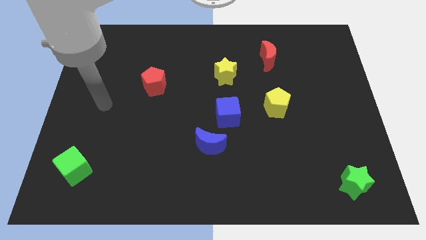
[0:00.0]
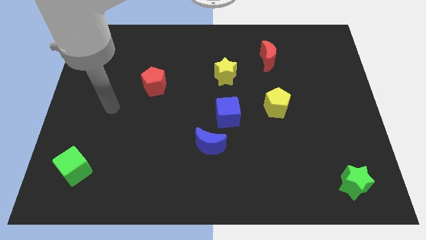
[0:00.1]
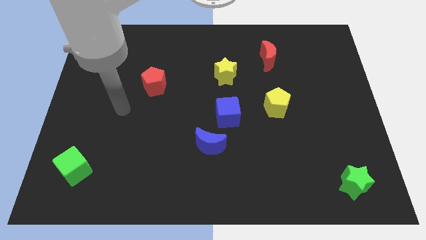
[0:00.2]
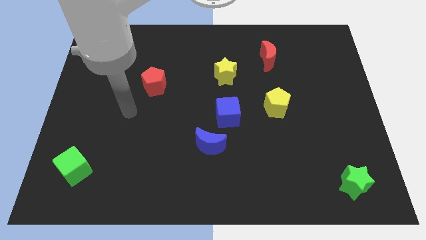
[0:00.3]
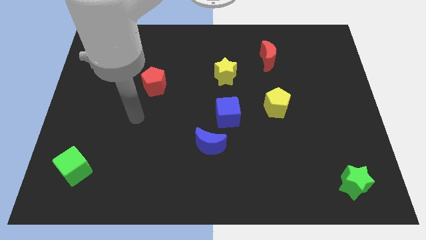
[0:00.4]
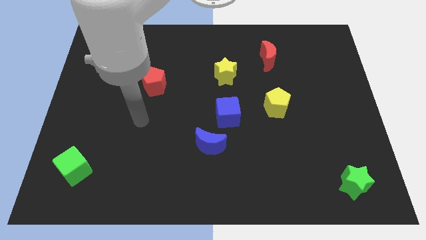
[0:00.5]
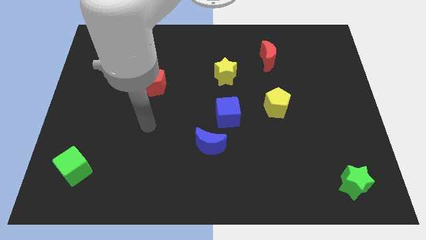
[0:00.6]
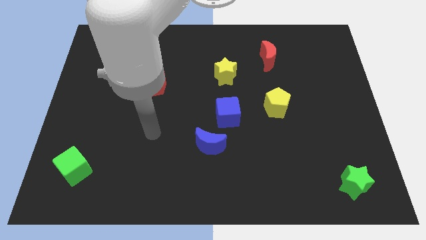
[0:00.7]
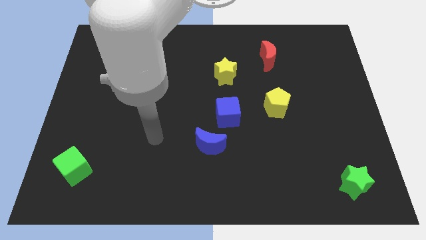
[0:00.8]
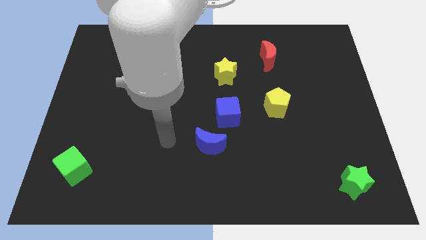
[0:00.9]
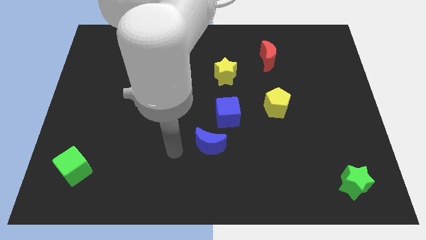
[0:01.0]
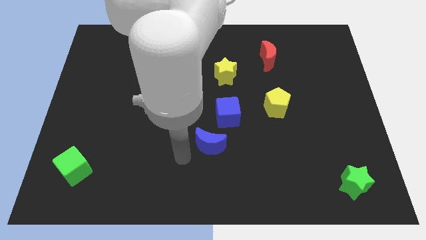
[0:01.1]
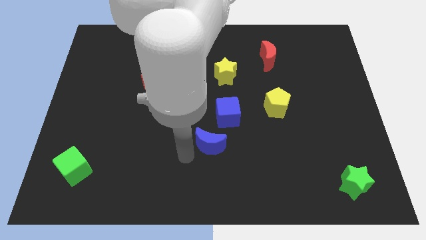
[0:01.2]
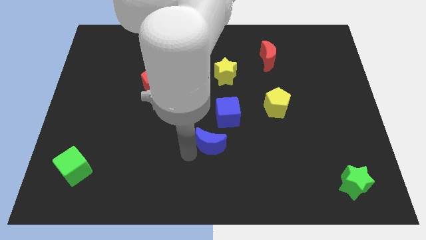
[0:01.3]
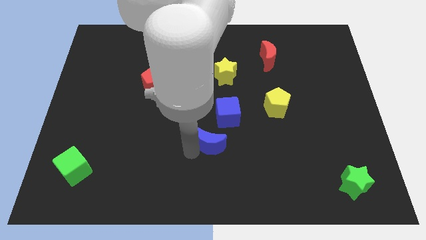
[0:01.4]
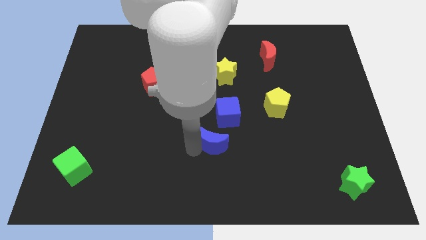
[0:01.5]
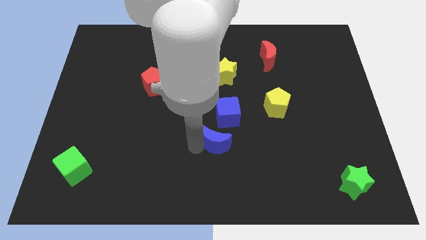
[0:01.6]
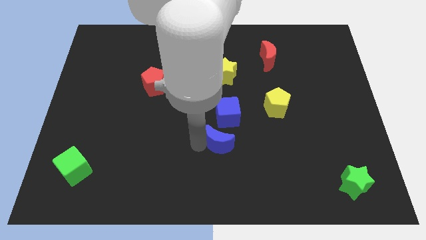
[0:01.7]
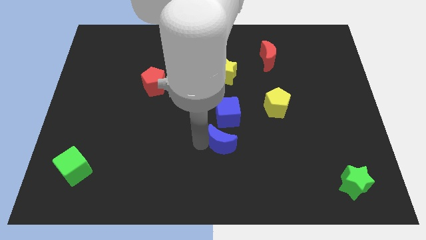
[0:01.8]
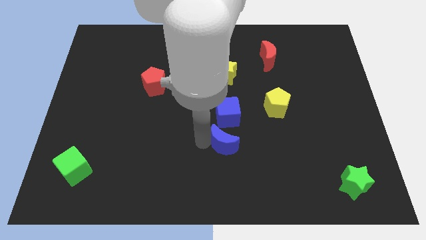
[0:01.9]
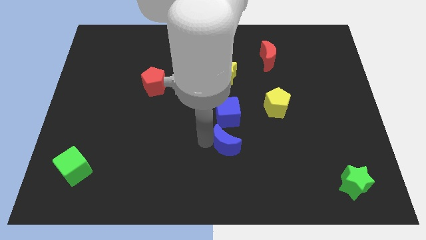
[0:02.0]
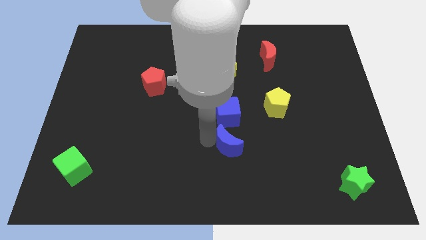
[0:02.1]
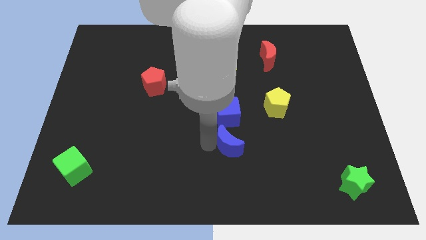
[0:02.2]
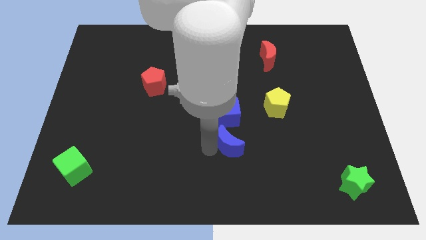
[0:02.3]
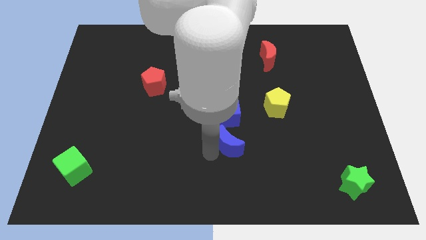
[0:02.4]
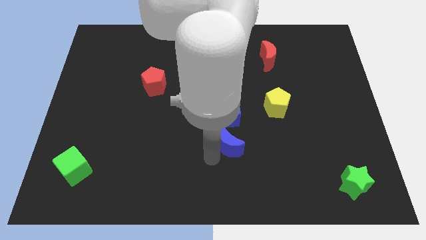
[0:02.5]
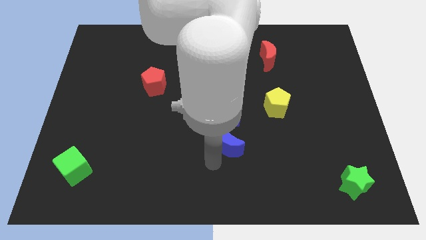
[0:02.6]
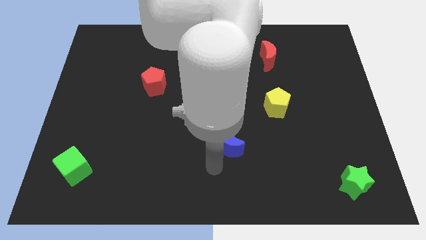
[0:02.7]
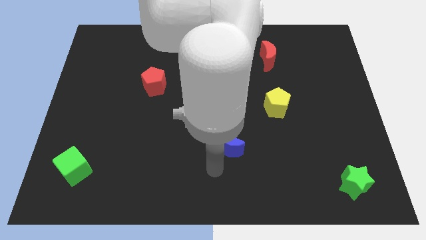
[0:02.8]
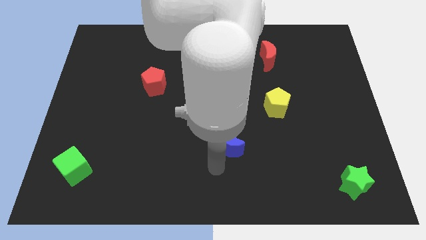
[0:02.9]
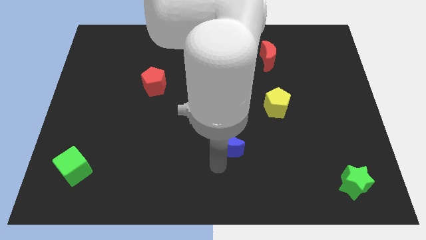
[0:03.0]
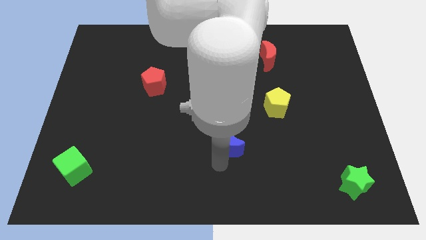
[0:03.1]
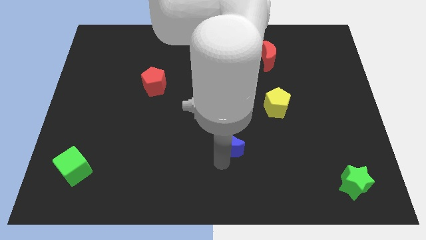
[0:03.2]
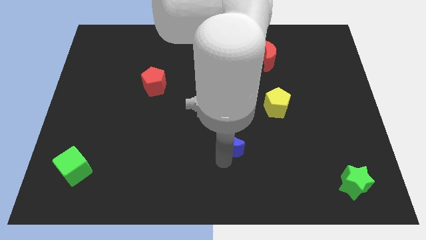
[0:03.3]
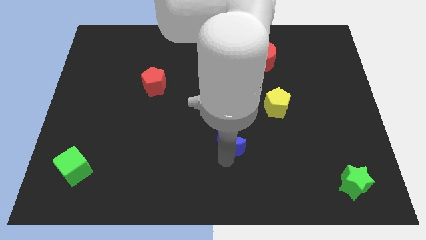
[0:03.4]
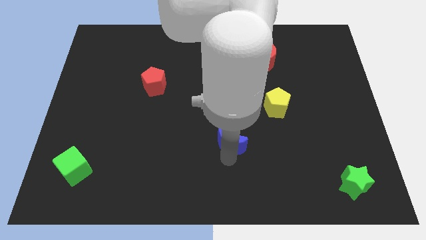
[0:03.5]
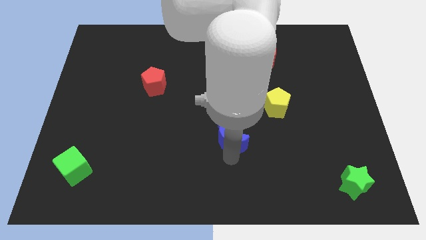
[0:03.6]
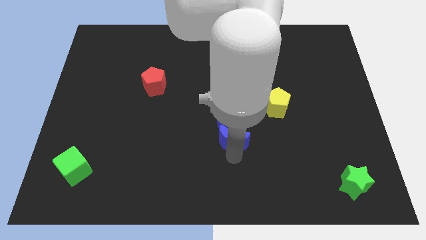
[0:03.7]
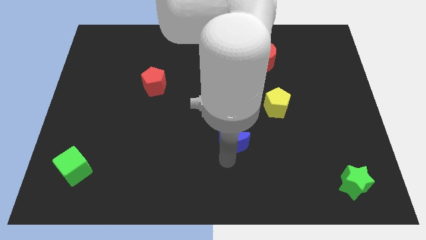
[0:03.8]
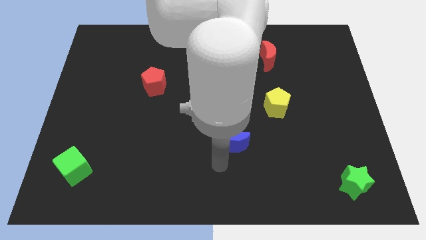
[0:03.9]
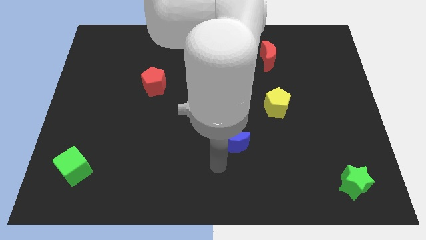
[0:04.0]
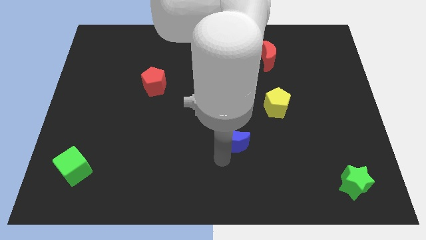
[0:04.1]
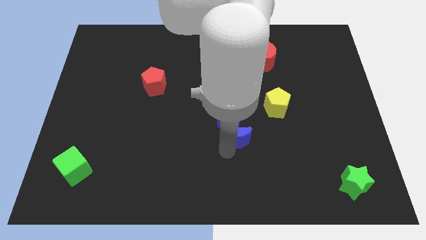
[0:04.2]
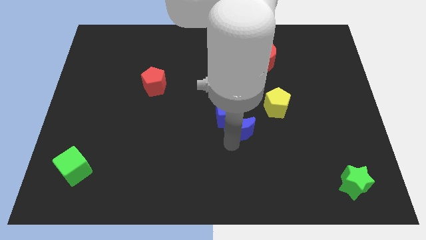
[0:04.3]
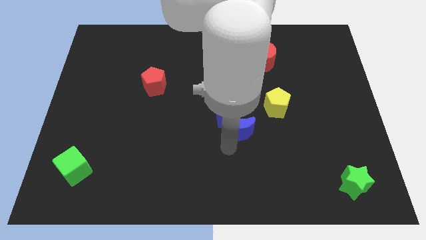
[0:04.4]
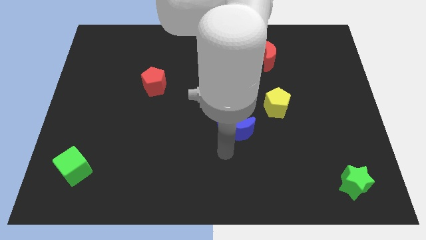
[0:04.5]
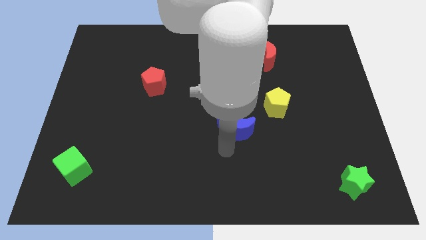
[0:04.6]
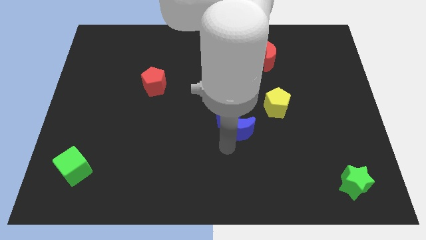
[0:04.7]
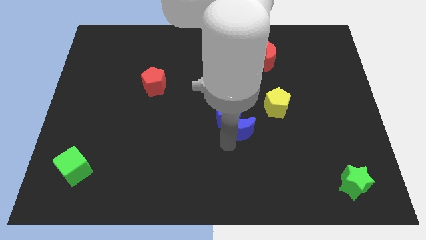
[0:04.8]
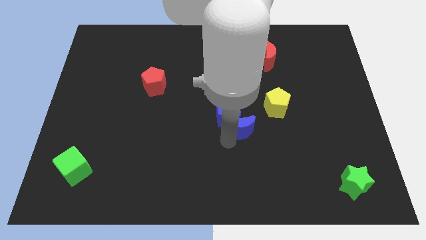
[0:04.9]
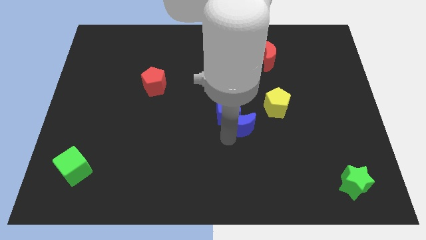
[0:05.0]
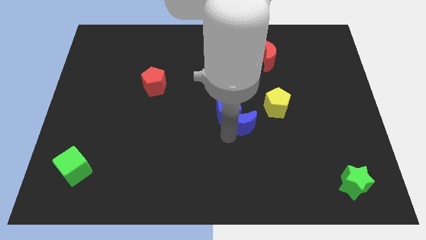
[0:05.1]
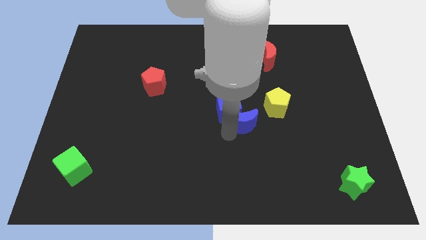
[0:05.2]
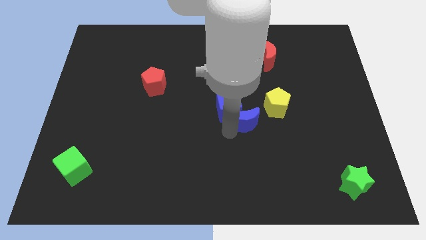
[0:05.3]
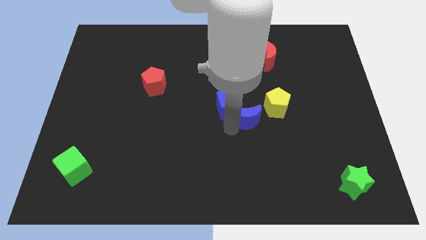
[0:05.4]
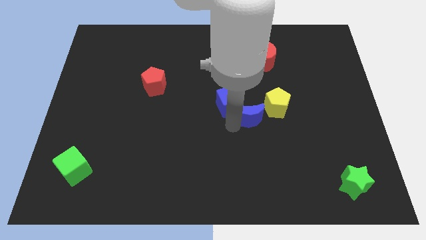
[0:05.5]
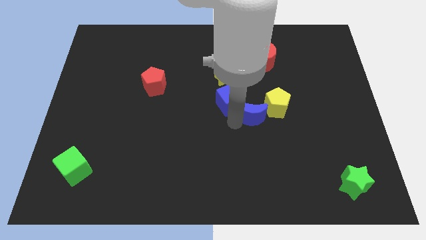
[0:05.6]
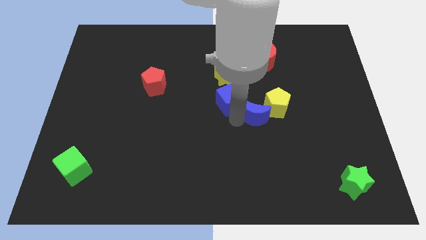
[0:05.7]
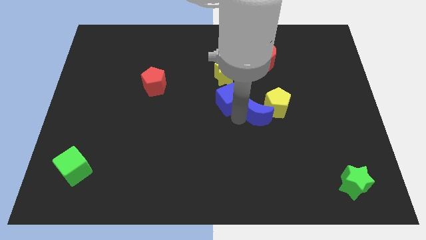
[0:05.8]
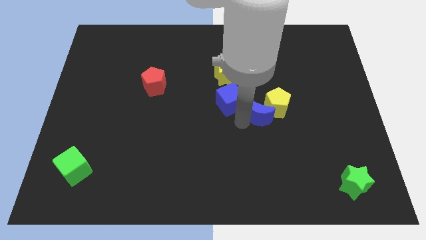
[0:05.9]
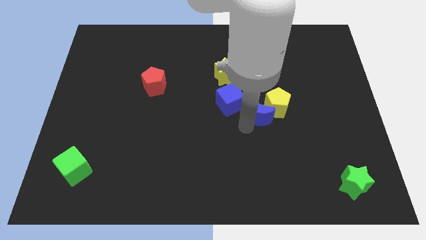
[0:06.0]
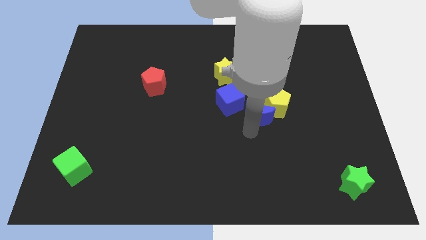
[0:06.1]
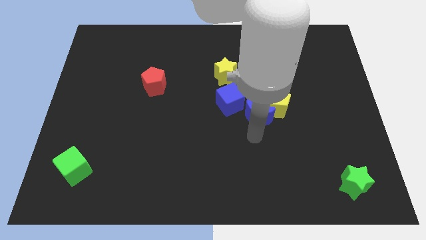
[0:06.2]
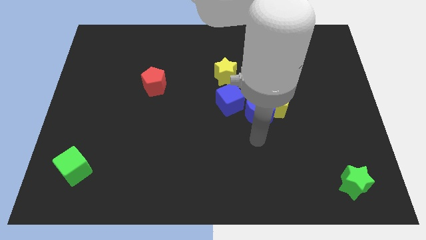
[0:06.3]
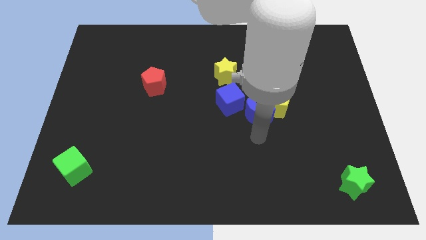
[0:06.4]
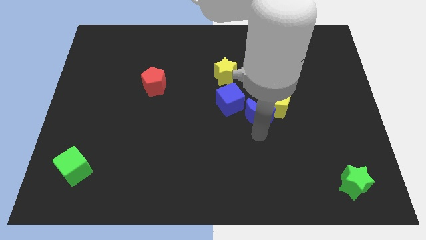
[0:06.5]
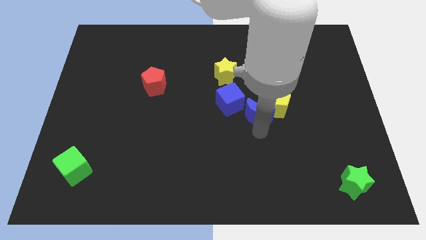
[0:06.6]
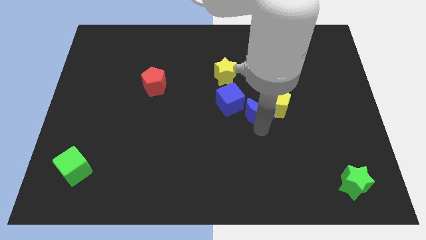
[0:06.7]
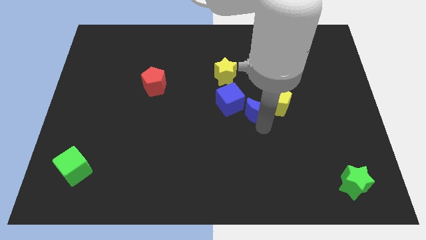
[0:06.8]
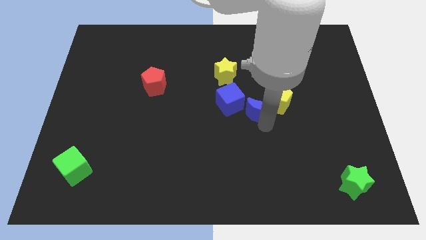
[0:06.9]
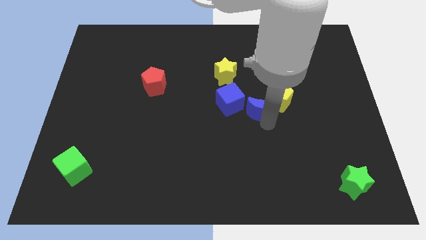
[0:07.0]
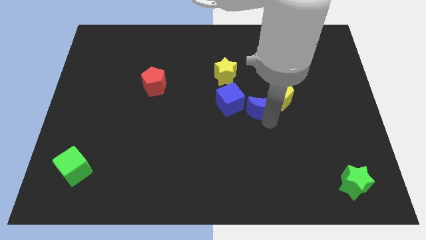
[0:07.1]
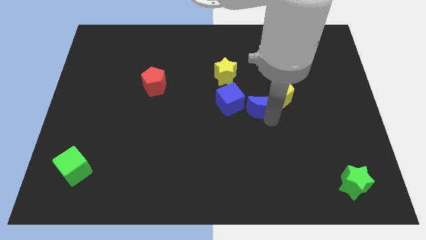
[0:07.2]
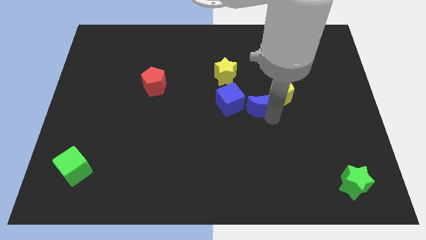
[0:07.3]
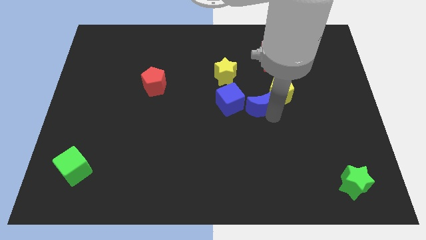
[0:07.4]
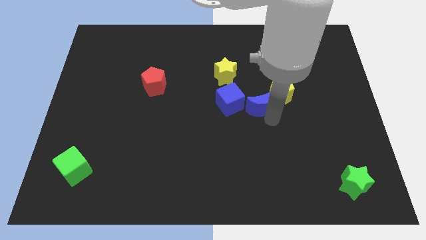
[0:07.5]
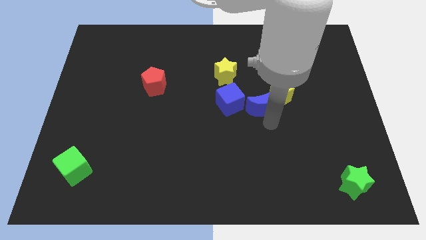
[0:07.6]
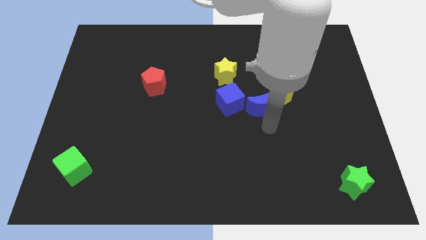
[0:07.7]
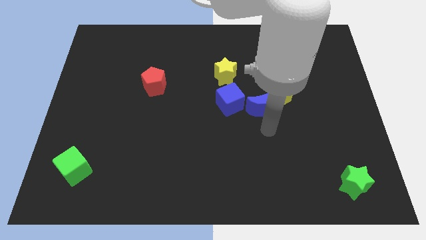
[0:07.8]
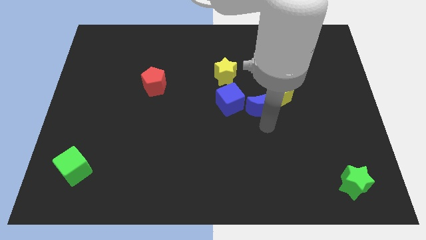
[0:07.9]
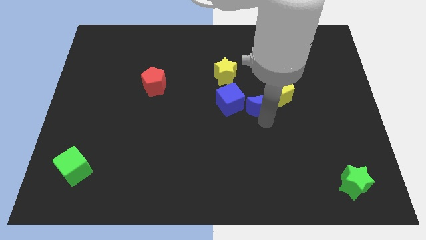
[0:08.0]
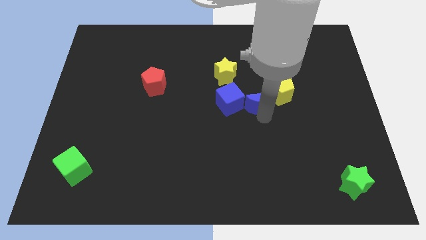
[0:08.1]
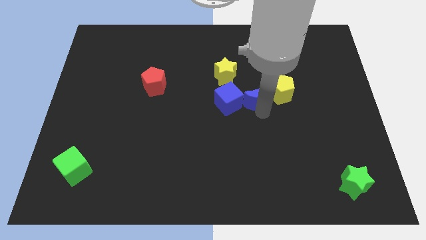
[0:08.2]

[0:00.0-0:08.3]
put the blue moon below the red moon
